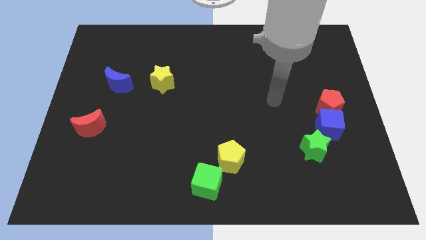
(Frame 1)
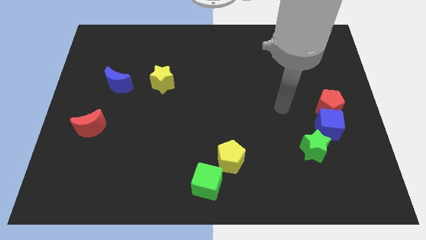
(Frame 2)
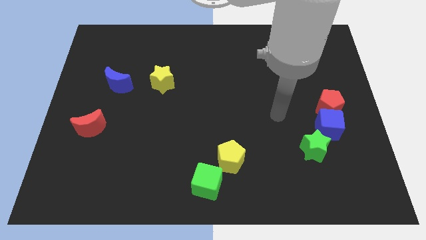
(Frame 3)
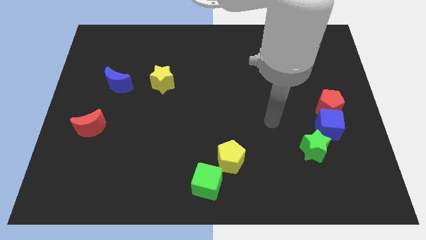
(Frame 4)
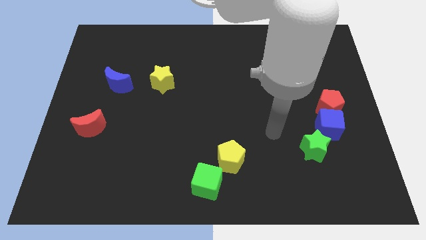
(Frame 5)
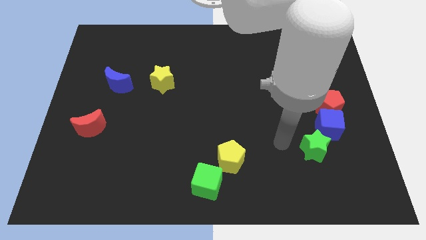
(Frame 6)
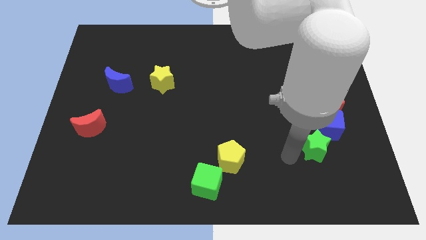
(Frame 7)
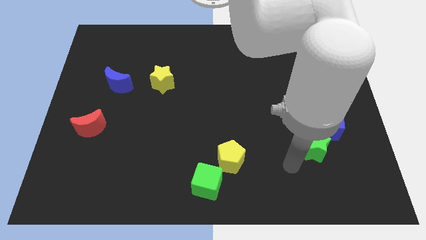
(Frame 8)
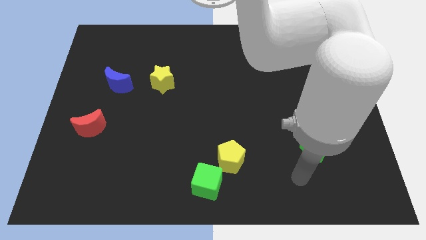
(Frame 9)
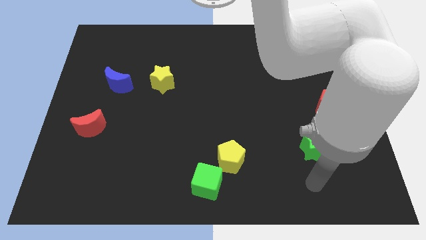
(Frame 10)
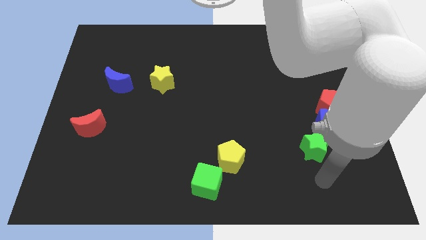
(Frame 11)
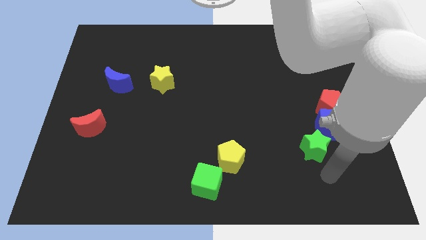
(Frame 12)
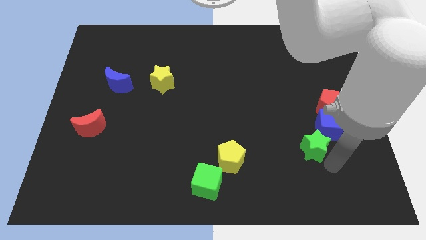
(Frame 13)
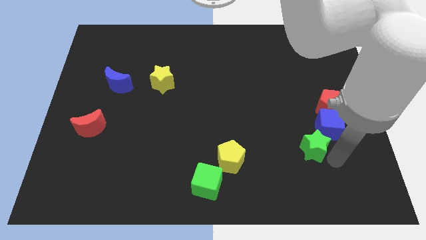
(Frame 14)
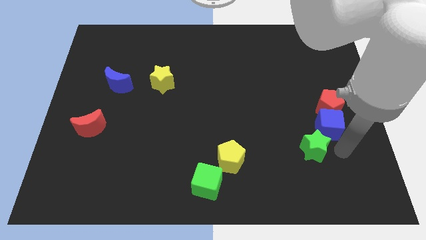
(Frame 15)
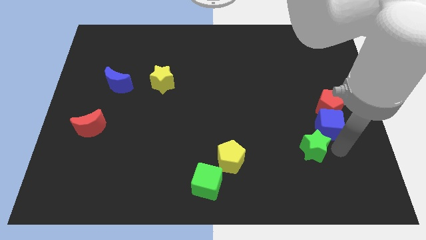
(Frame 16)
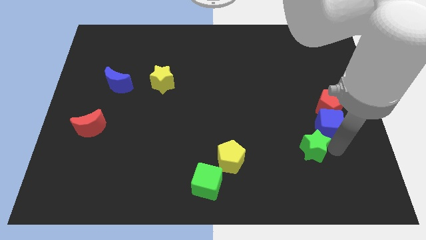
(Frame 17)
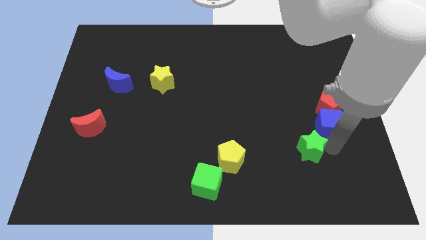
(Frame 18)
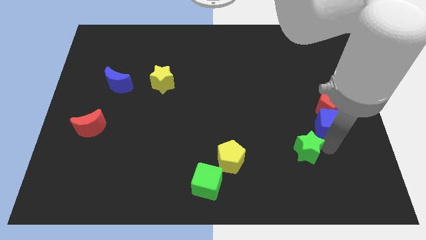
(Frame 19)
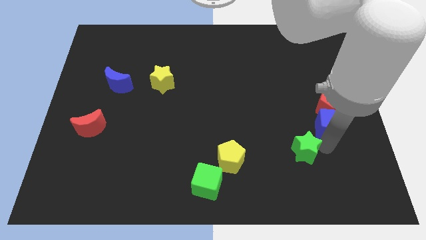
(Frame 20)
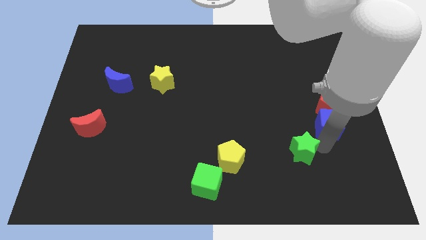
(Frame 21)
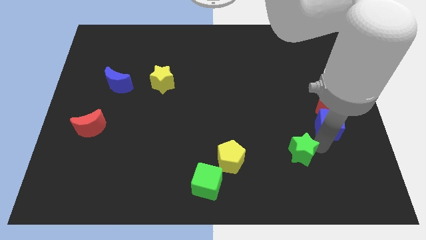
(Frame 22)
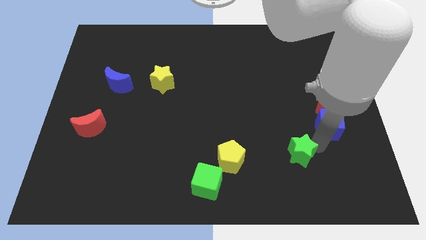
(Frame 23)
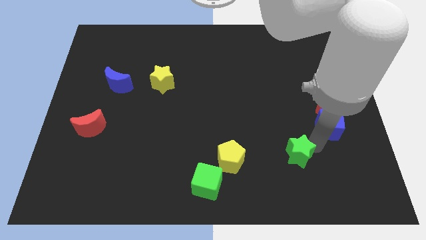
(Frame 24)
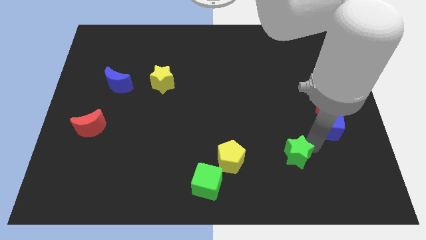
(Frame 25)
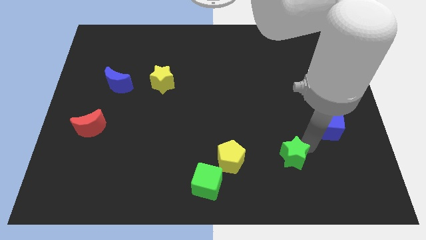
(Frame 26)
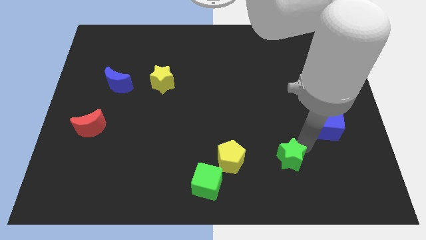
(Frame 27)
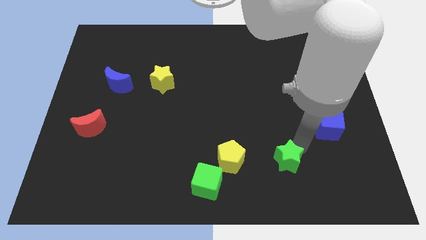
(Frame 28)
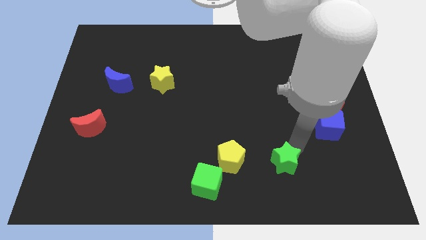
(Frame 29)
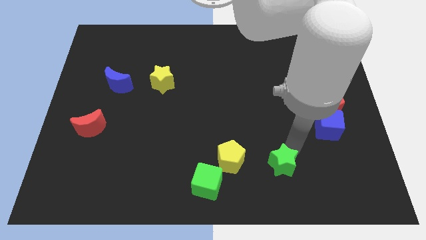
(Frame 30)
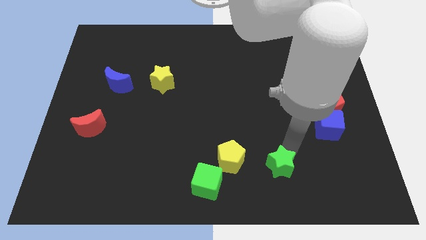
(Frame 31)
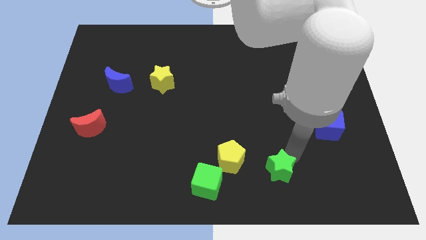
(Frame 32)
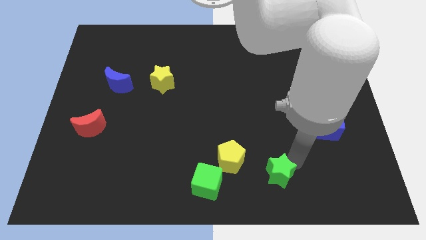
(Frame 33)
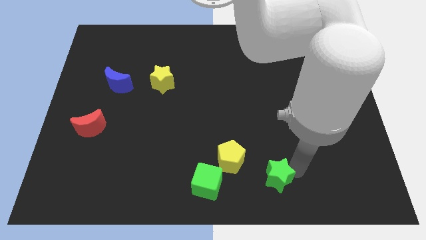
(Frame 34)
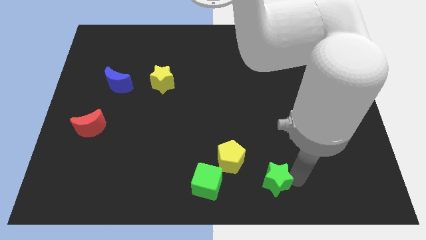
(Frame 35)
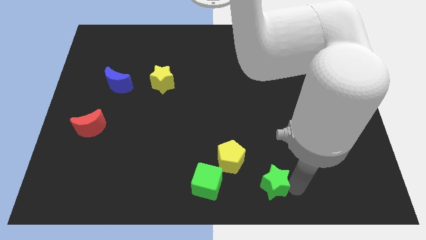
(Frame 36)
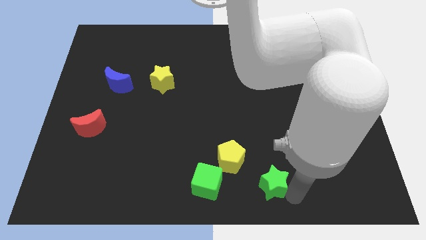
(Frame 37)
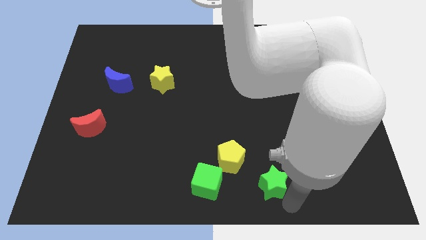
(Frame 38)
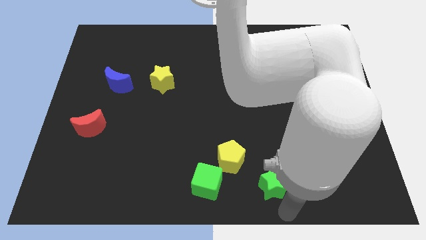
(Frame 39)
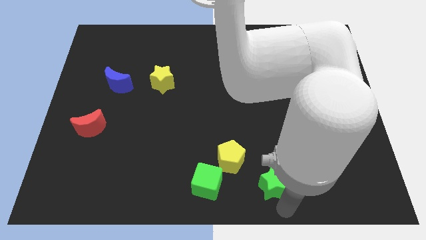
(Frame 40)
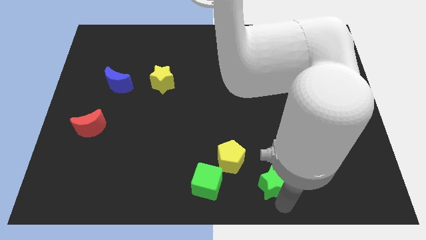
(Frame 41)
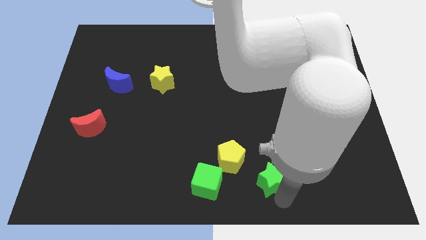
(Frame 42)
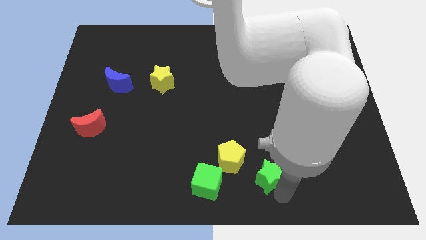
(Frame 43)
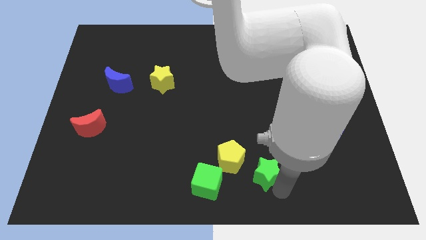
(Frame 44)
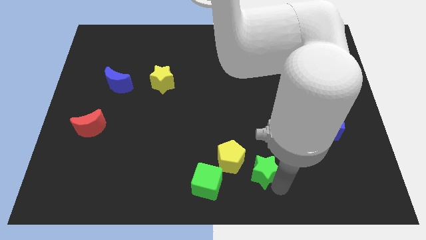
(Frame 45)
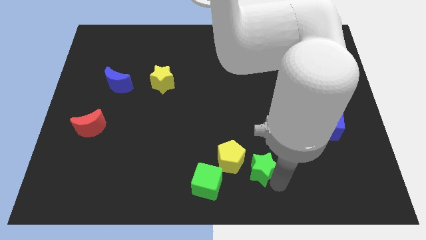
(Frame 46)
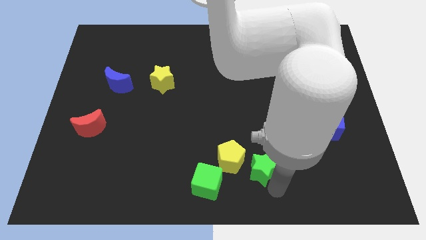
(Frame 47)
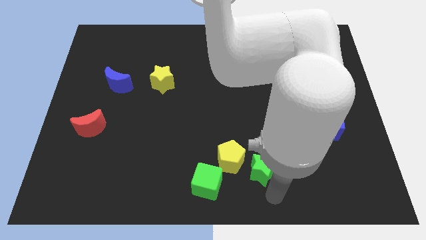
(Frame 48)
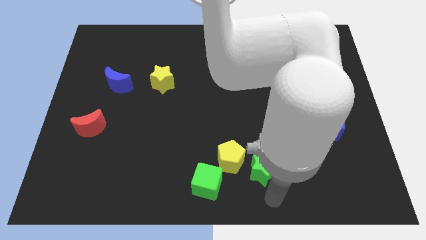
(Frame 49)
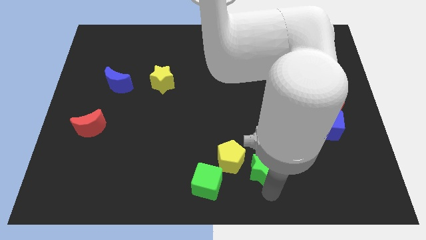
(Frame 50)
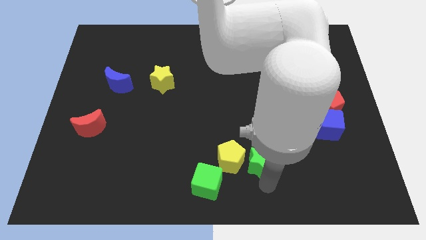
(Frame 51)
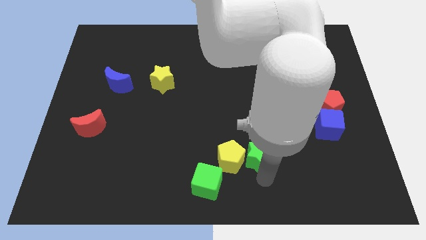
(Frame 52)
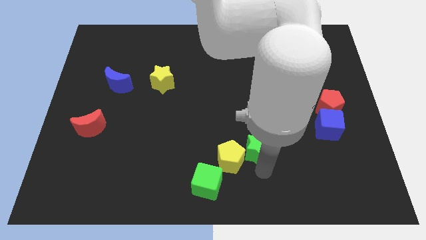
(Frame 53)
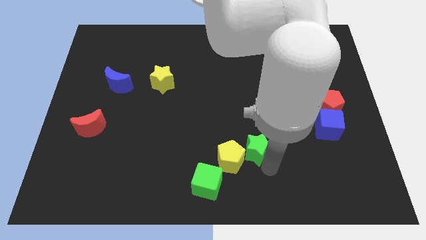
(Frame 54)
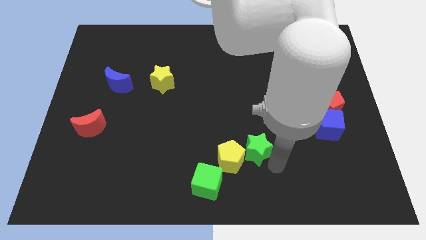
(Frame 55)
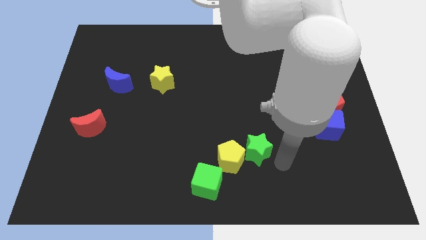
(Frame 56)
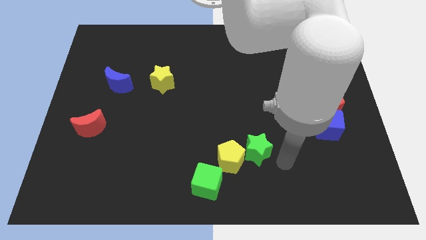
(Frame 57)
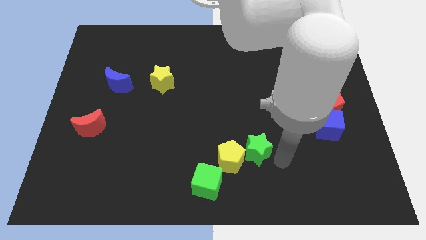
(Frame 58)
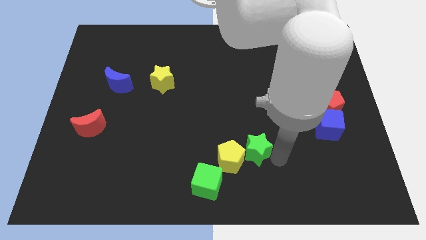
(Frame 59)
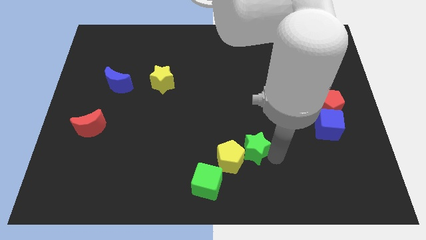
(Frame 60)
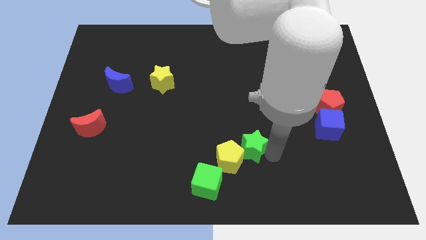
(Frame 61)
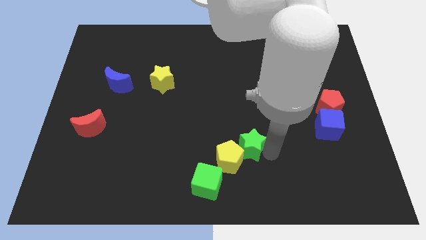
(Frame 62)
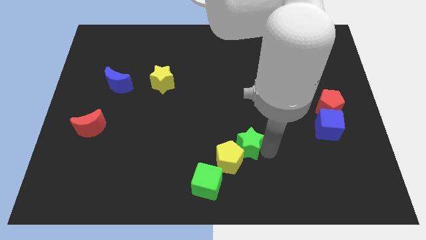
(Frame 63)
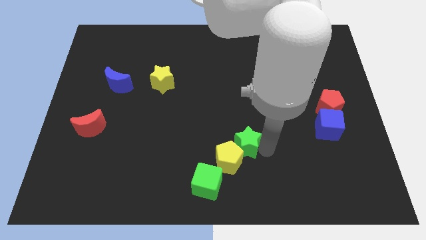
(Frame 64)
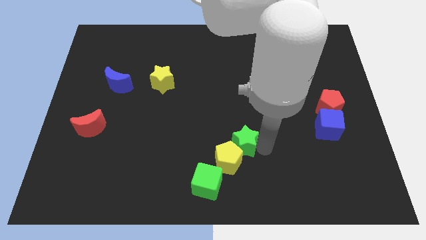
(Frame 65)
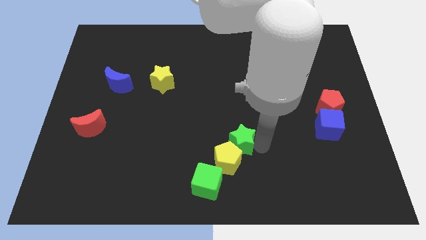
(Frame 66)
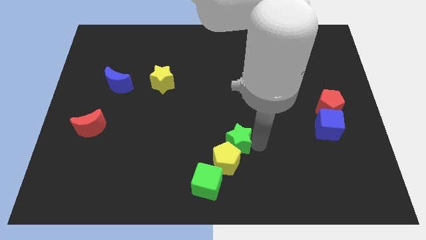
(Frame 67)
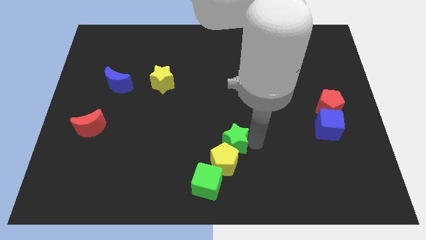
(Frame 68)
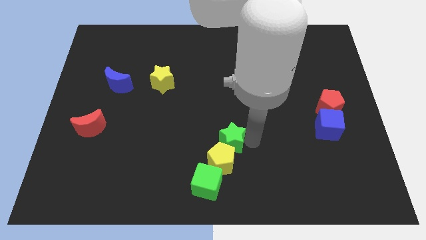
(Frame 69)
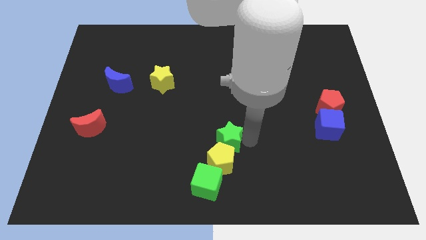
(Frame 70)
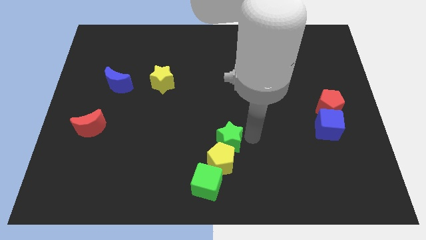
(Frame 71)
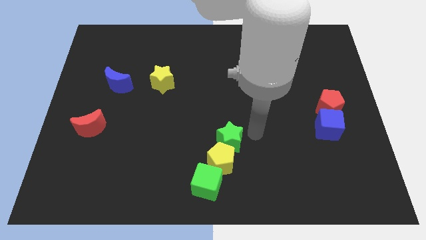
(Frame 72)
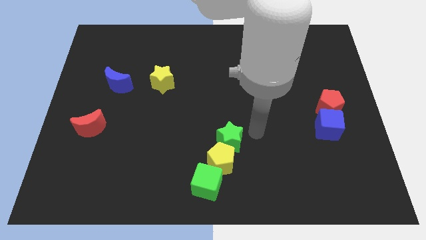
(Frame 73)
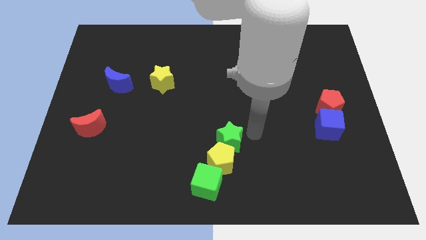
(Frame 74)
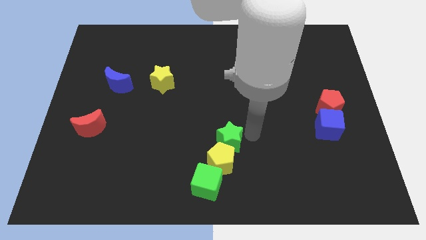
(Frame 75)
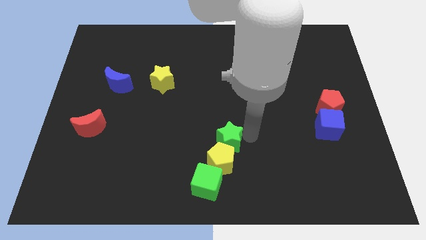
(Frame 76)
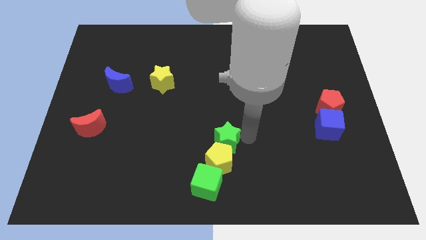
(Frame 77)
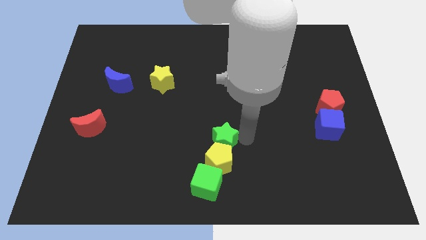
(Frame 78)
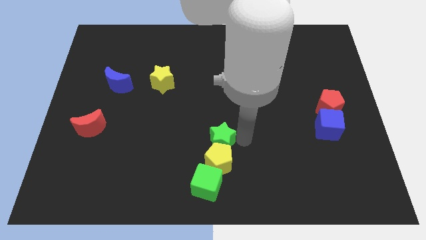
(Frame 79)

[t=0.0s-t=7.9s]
slide the green star to the left

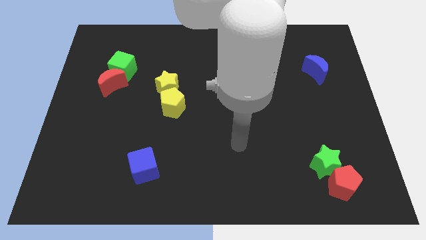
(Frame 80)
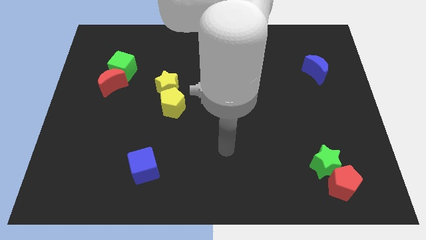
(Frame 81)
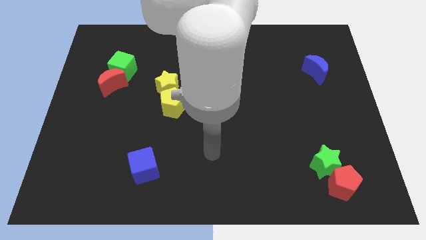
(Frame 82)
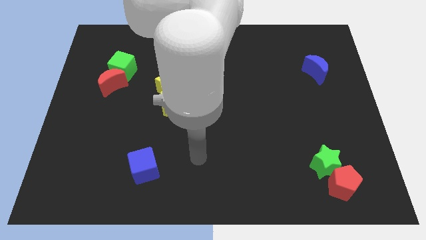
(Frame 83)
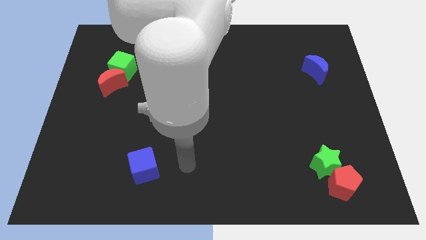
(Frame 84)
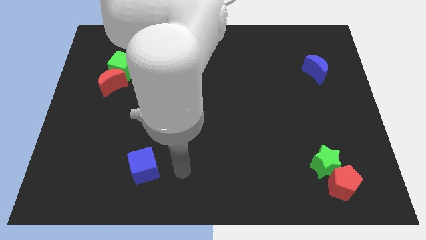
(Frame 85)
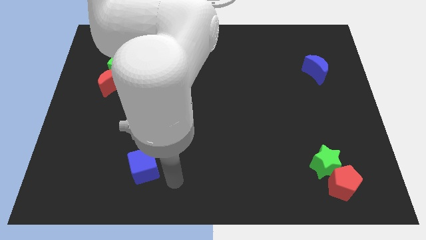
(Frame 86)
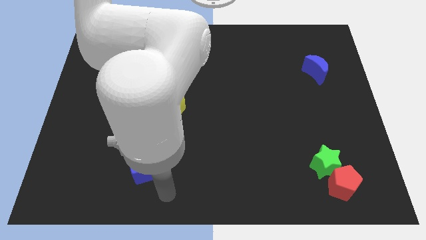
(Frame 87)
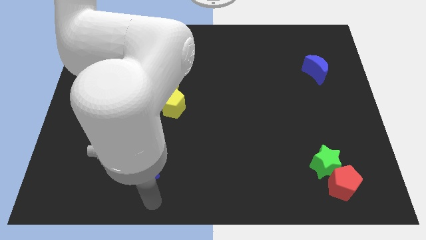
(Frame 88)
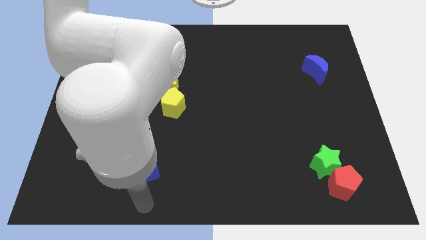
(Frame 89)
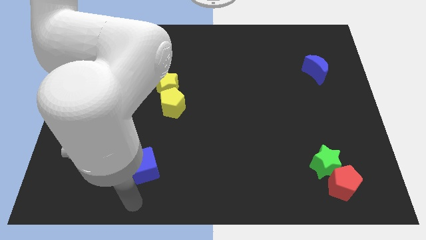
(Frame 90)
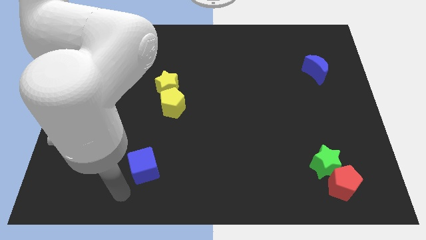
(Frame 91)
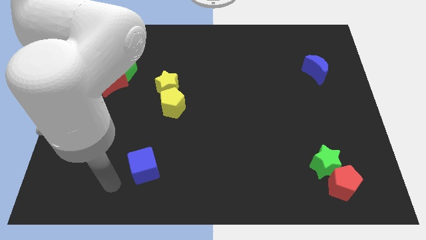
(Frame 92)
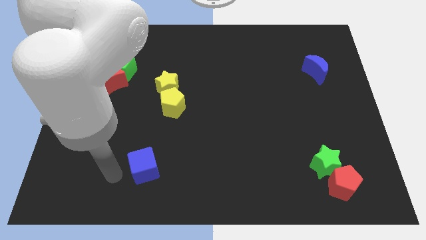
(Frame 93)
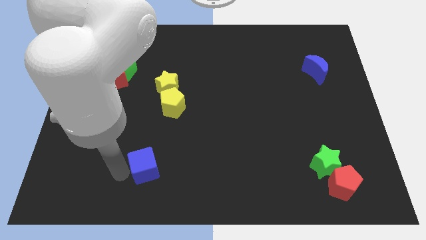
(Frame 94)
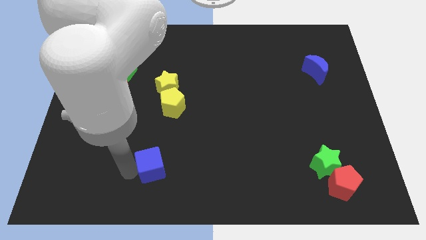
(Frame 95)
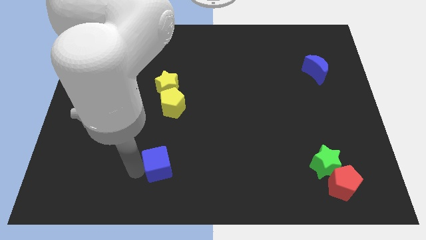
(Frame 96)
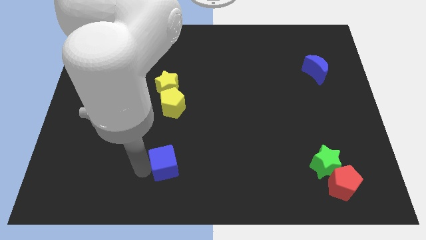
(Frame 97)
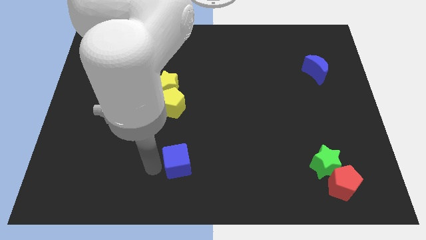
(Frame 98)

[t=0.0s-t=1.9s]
slide the blue cube right a little bit
